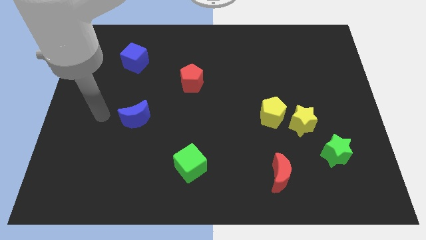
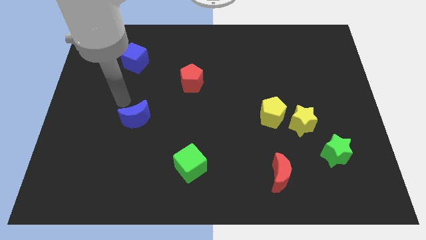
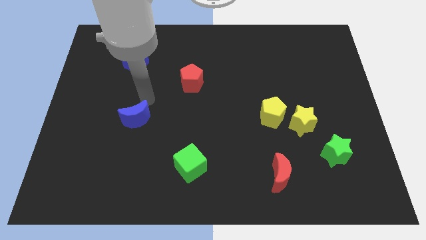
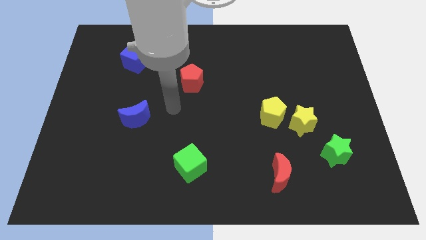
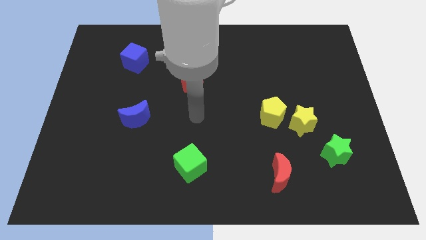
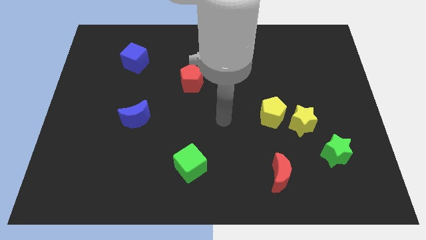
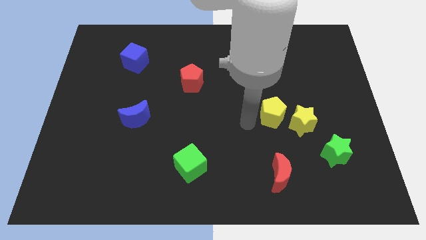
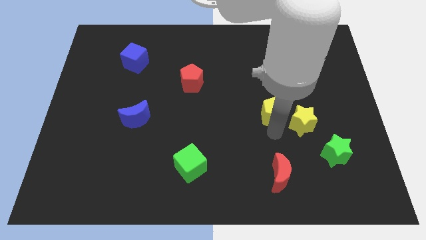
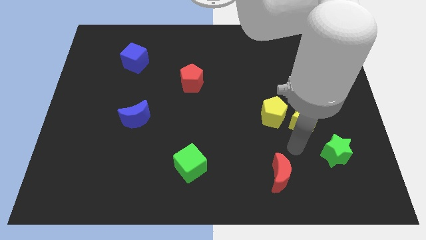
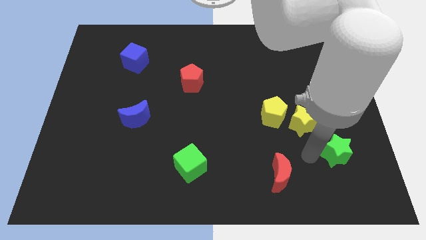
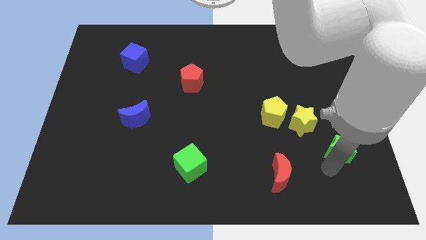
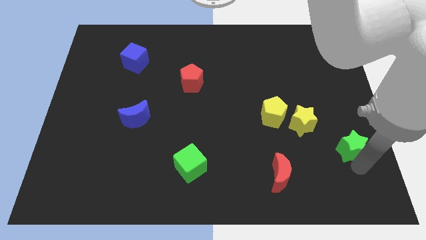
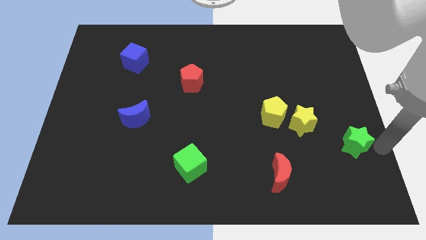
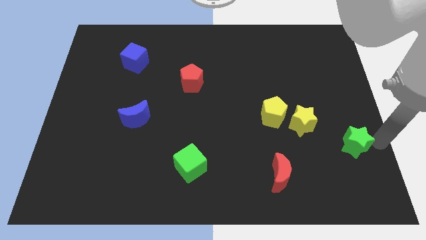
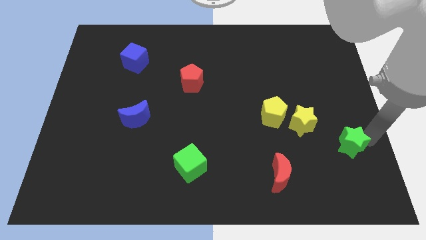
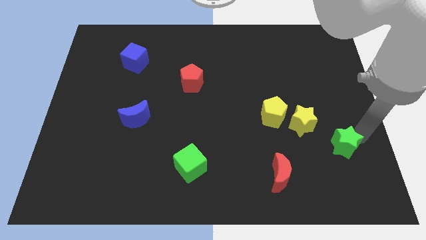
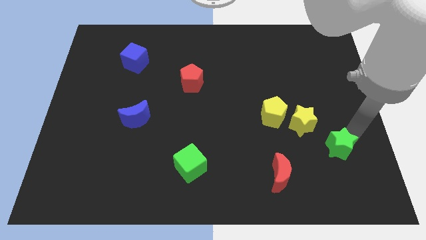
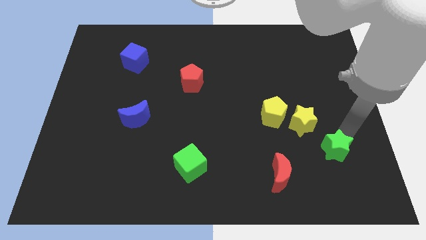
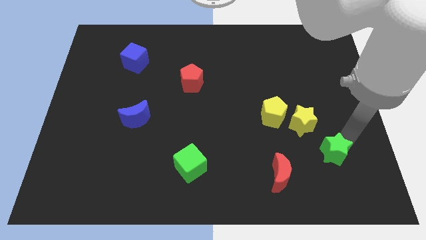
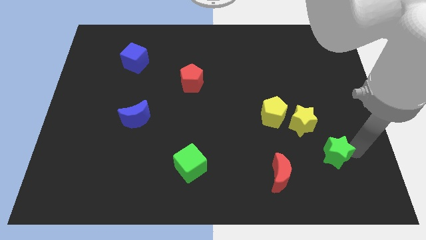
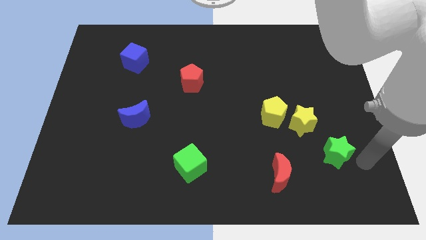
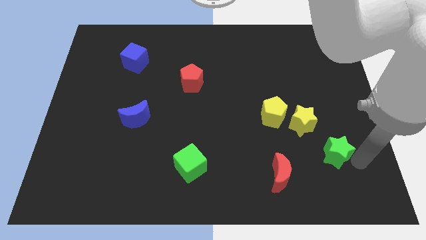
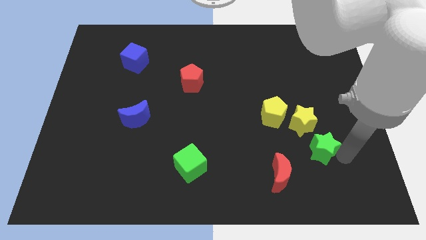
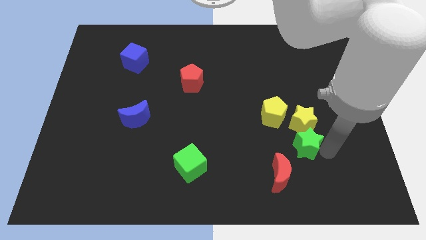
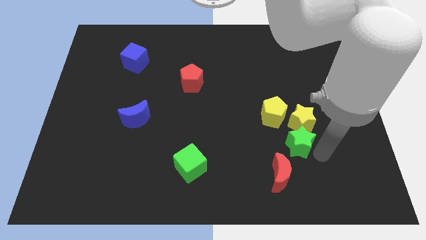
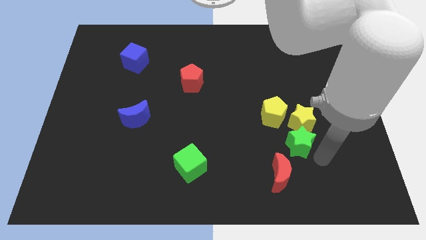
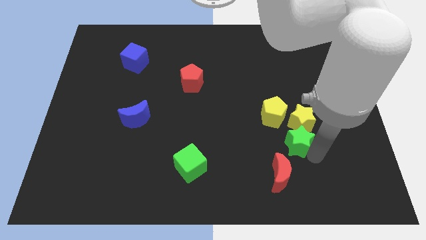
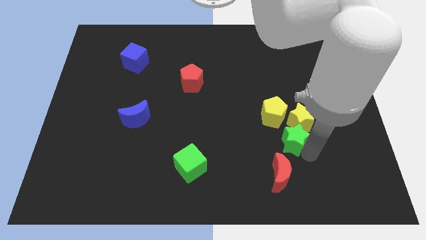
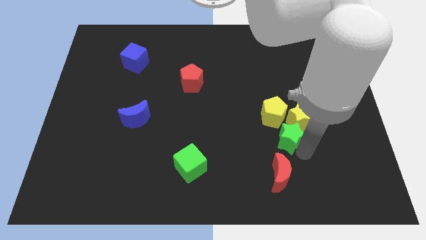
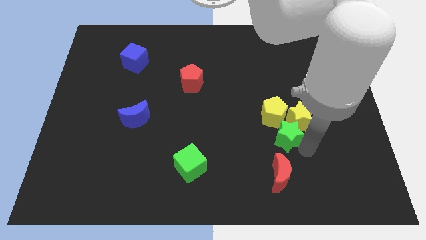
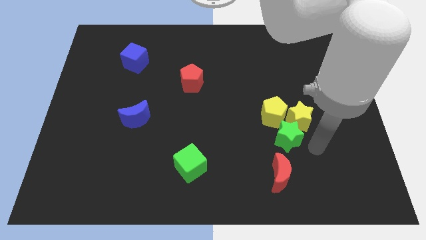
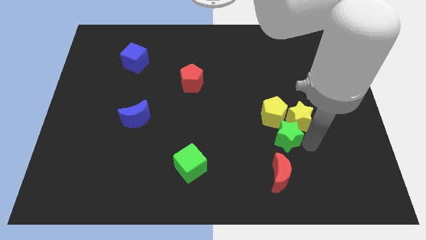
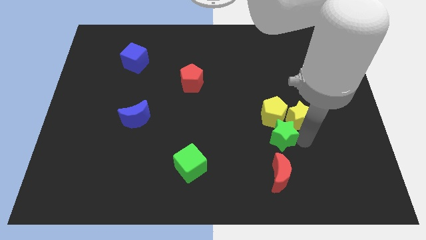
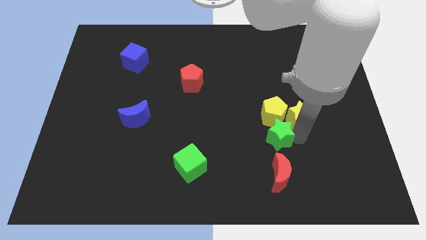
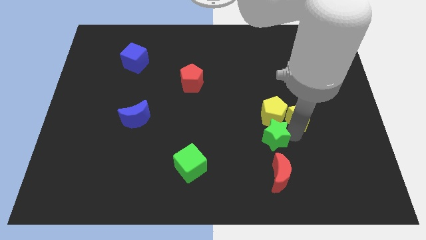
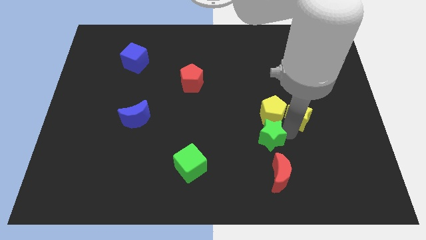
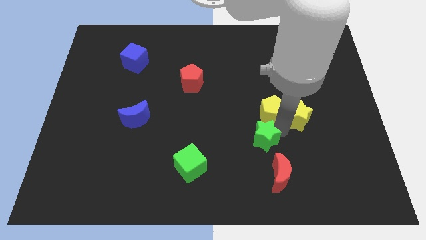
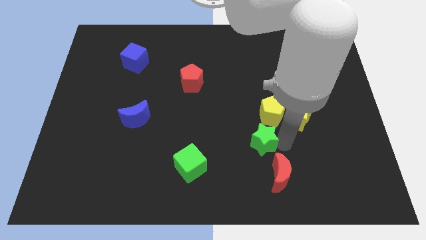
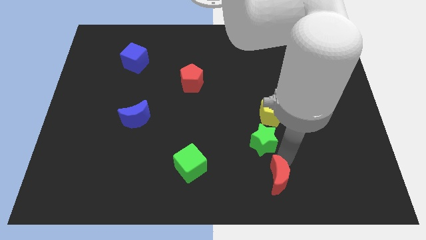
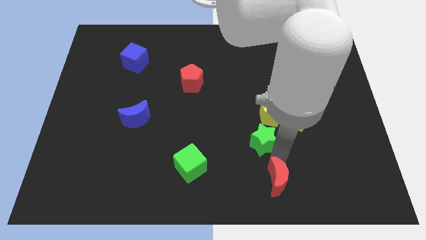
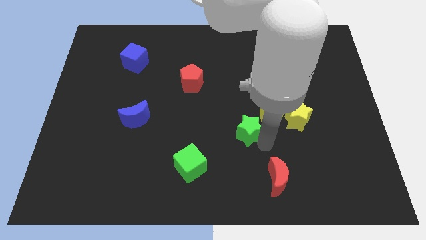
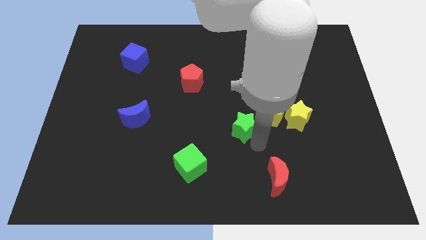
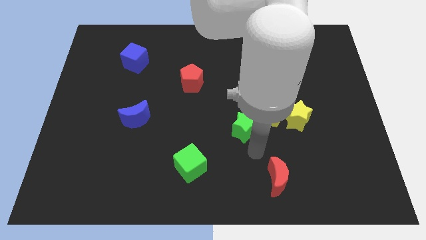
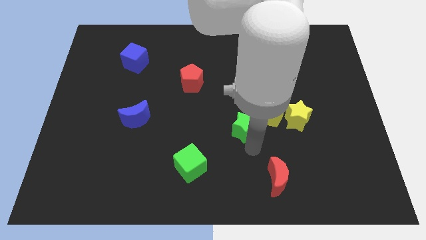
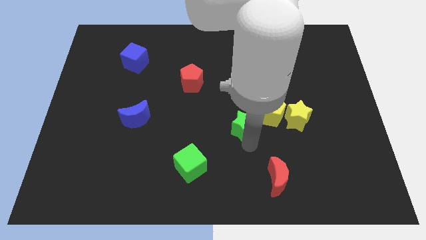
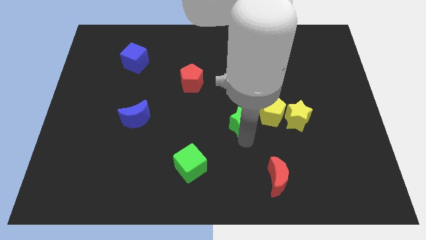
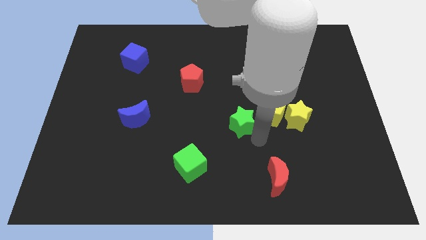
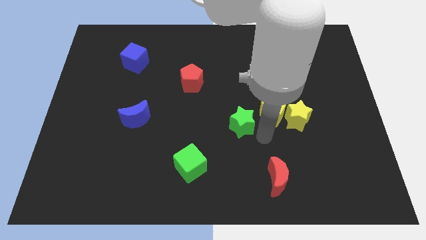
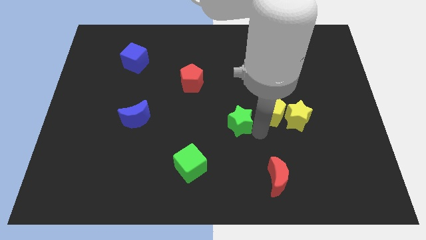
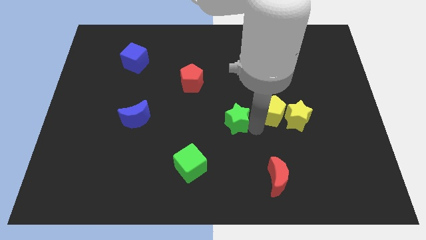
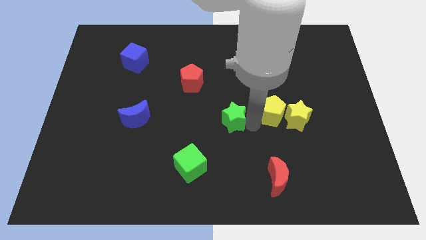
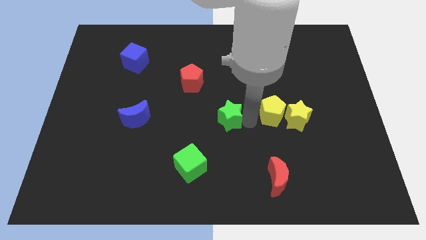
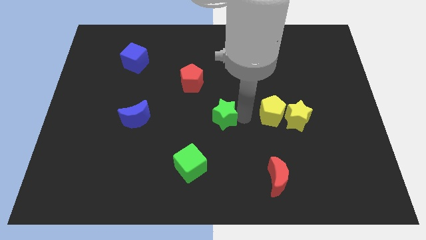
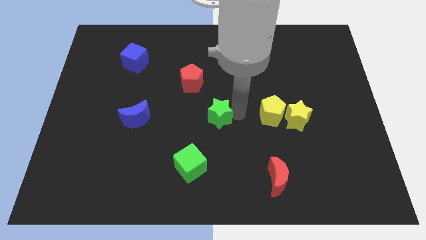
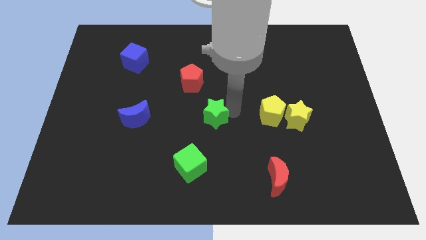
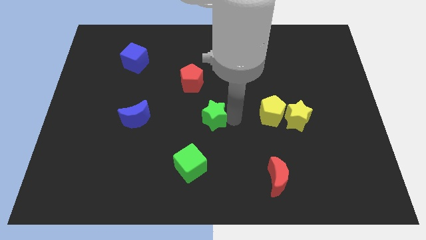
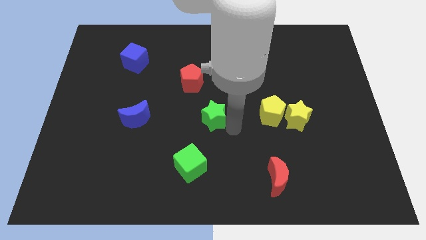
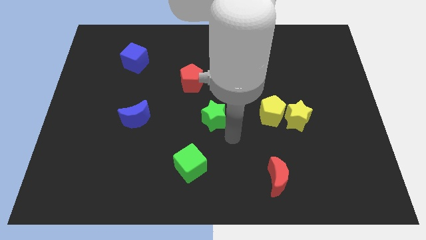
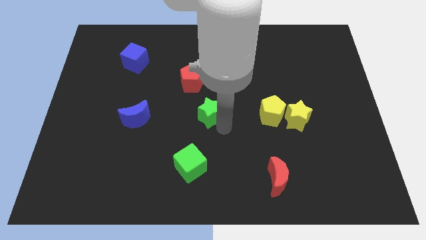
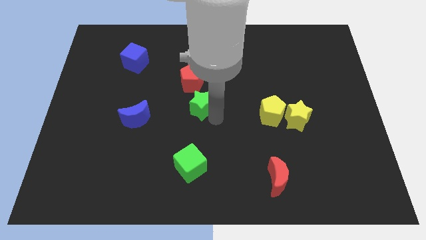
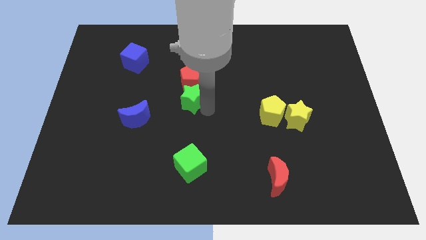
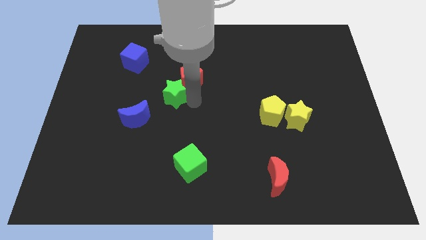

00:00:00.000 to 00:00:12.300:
push the green star left of the red pentagon

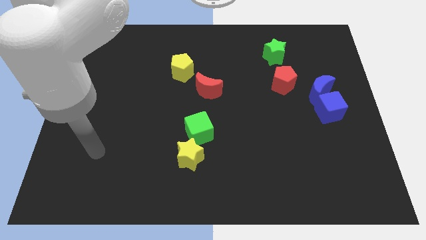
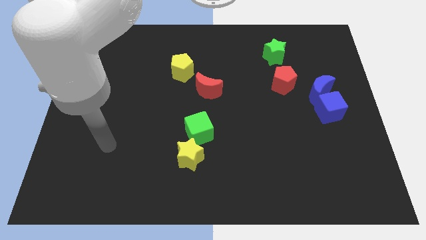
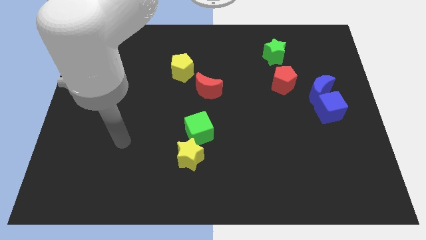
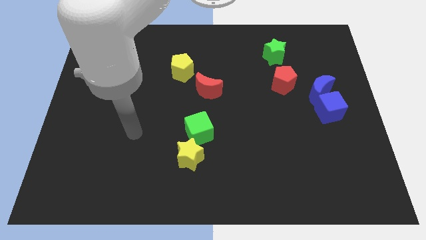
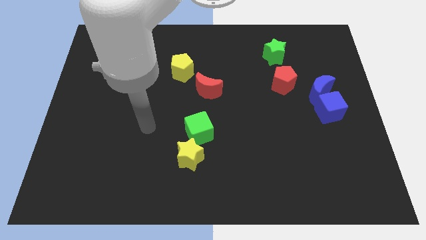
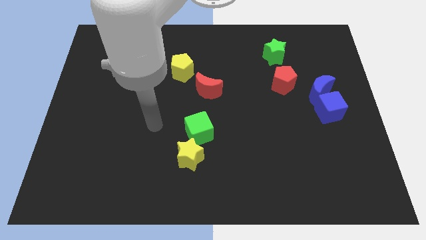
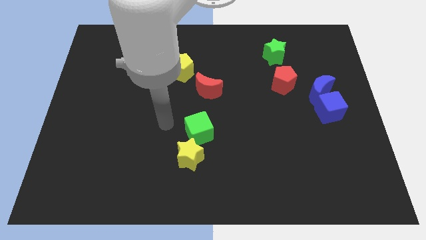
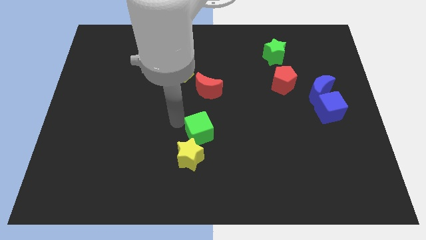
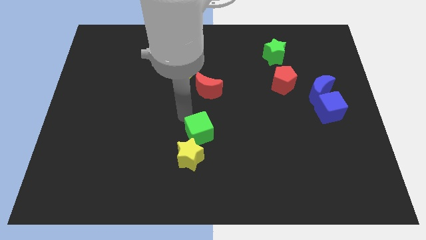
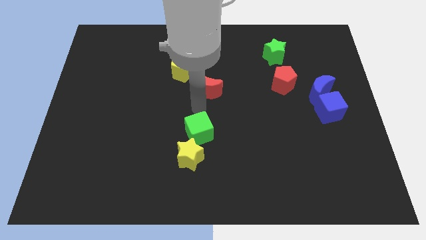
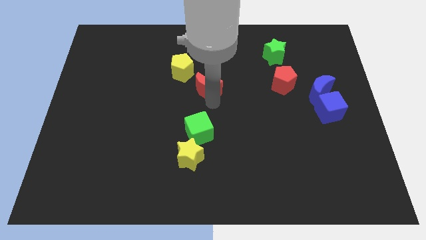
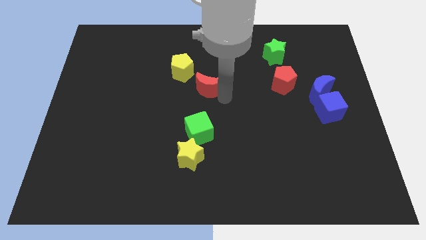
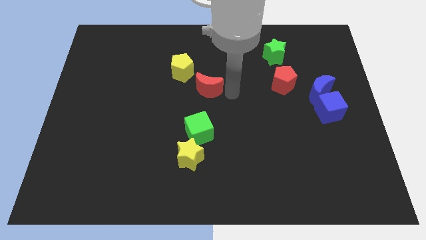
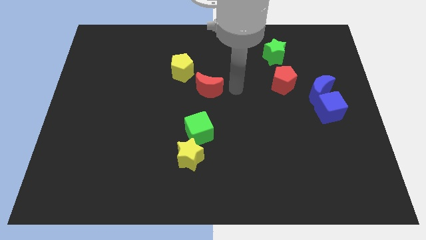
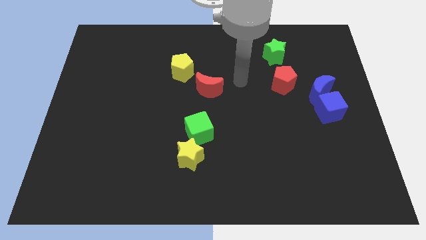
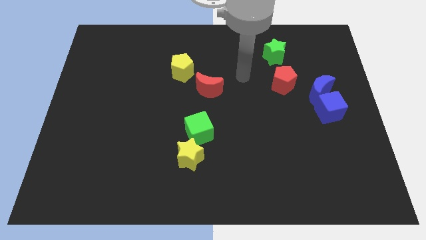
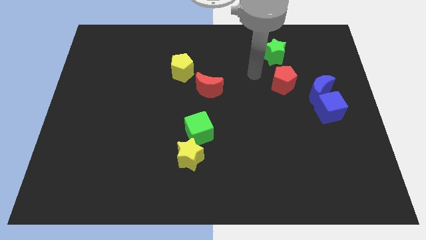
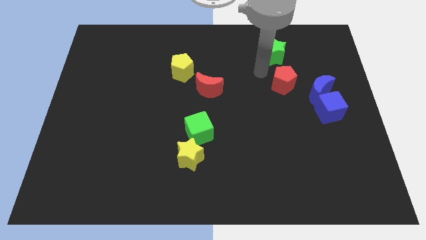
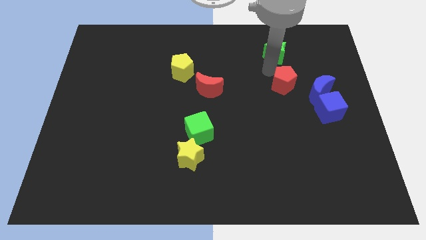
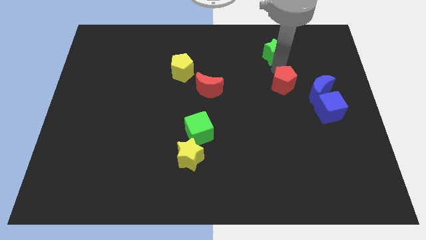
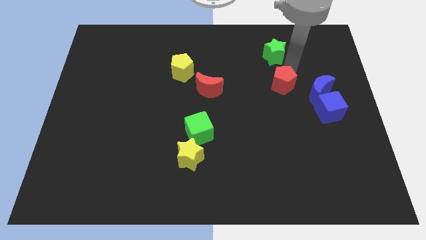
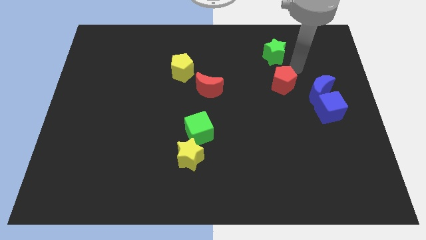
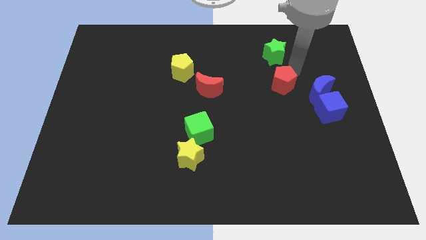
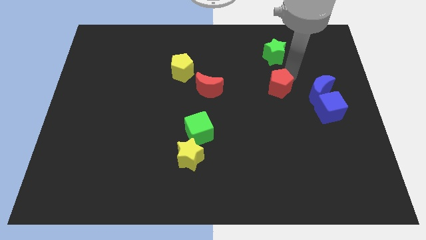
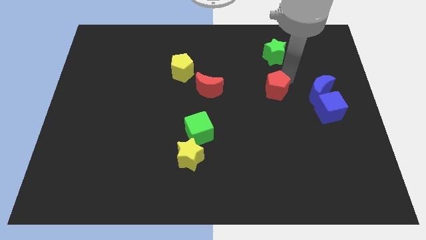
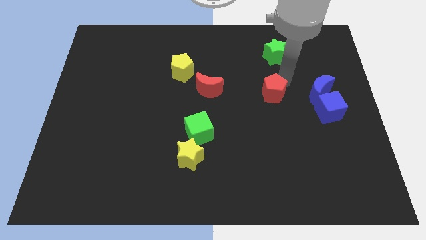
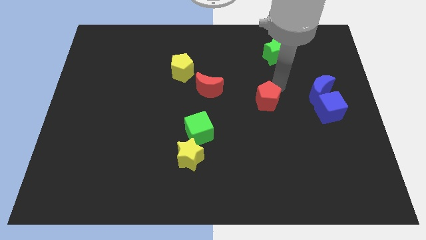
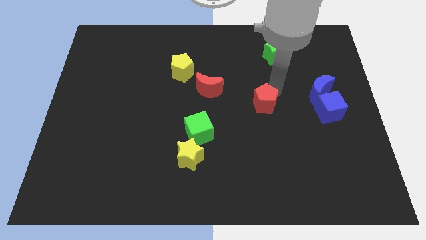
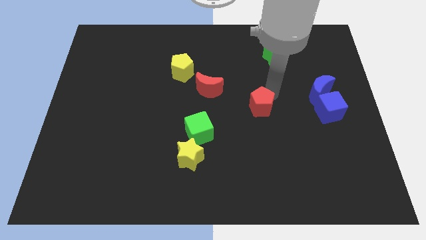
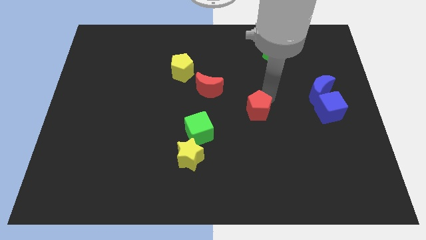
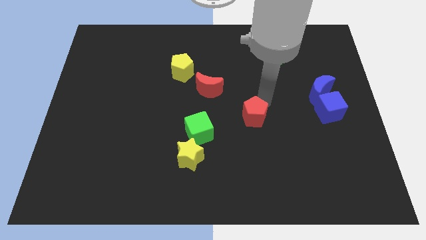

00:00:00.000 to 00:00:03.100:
push the red pentagon to the right of the green cube
